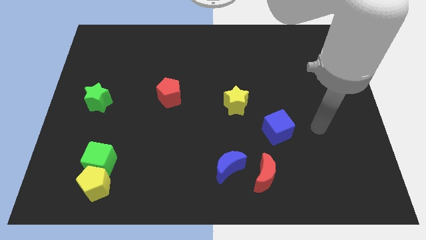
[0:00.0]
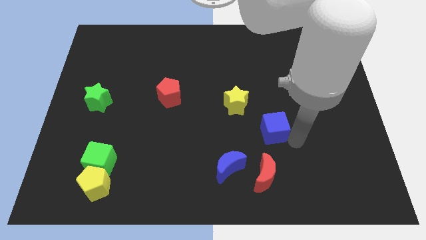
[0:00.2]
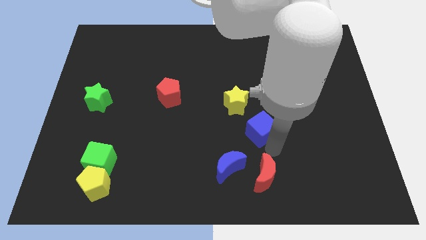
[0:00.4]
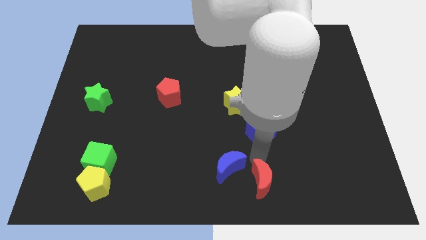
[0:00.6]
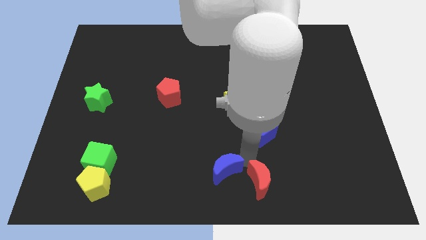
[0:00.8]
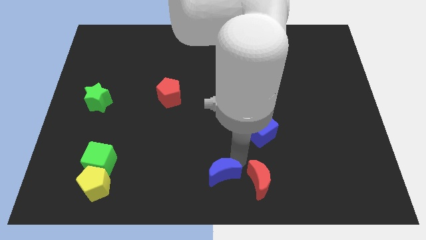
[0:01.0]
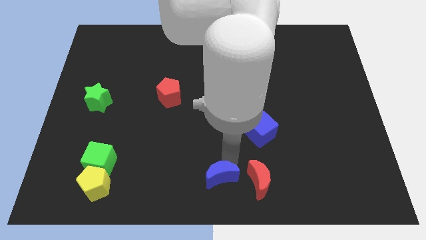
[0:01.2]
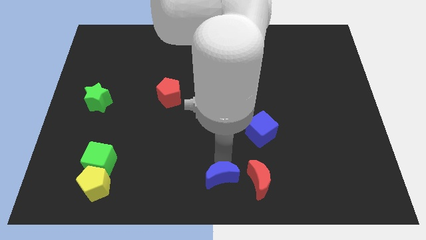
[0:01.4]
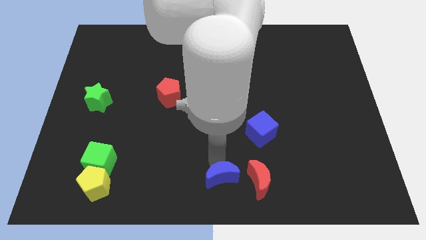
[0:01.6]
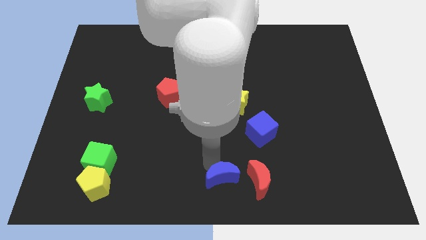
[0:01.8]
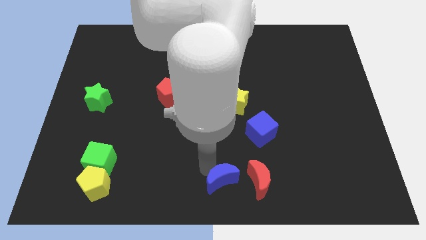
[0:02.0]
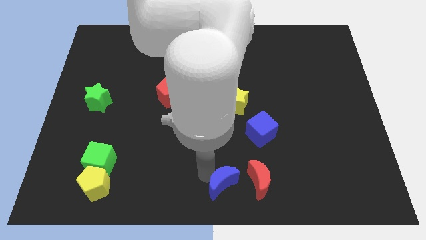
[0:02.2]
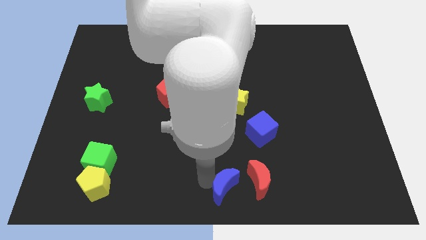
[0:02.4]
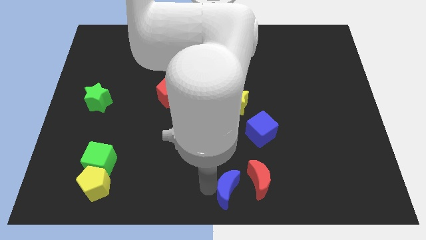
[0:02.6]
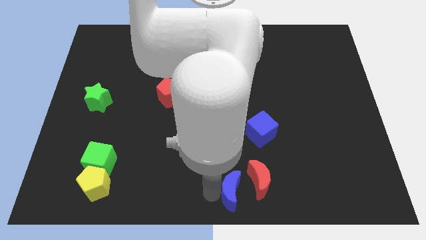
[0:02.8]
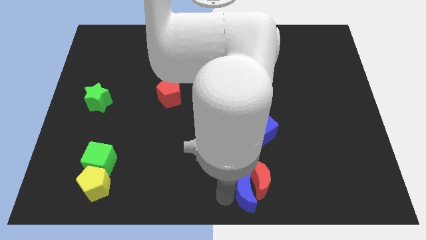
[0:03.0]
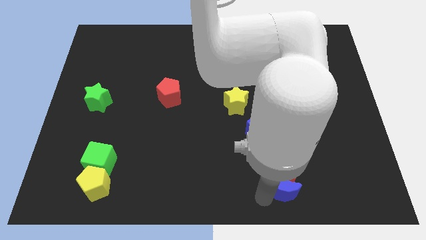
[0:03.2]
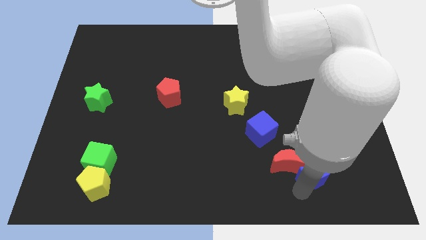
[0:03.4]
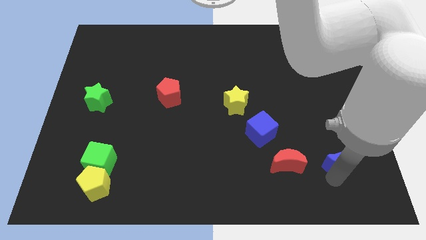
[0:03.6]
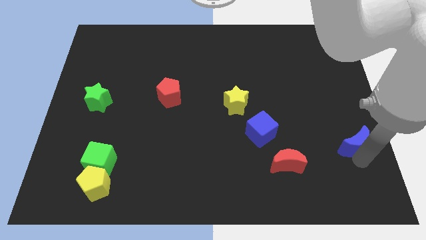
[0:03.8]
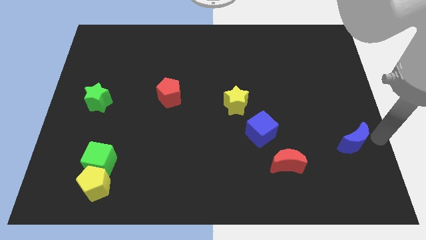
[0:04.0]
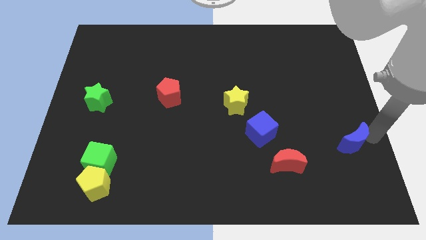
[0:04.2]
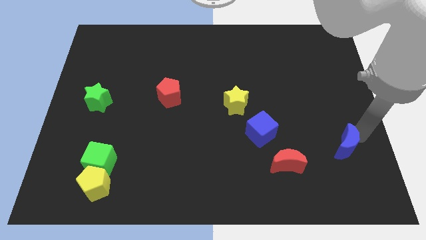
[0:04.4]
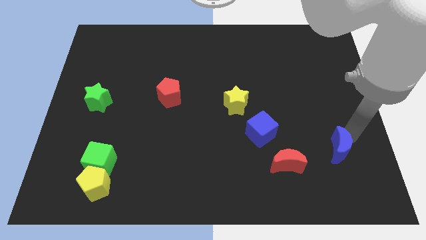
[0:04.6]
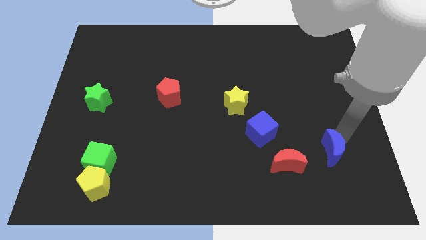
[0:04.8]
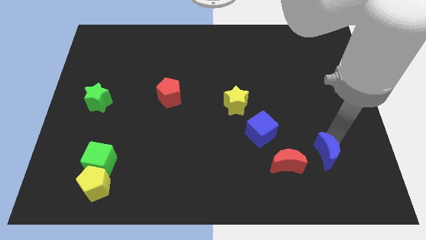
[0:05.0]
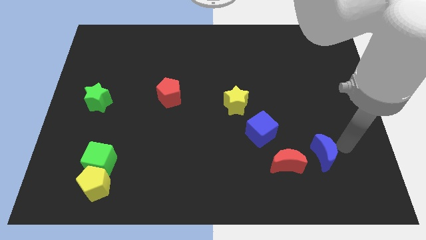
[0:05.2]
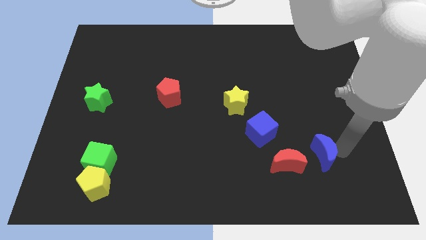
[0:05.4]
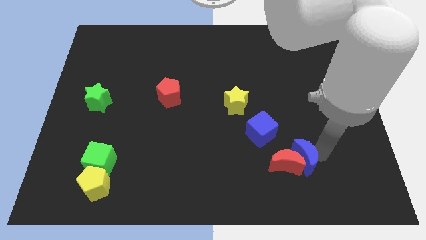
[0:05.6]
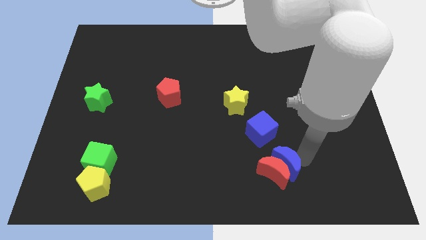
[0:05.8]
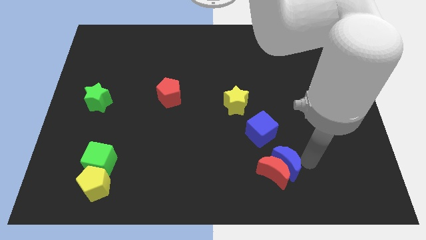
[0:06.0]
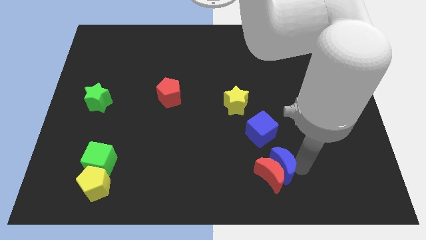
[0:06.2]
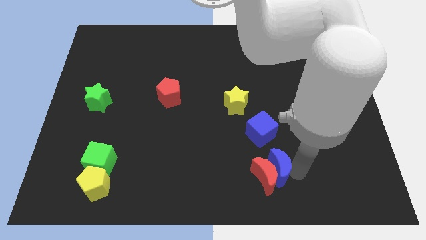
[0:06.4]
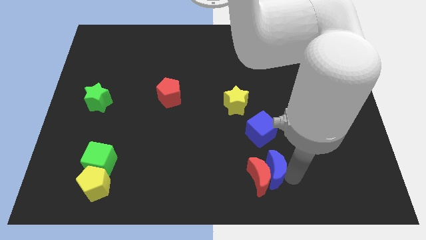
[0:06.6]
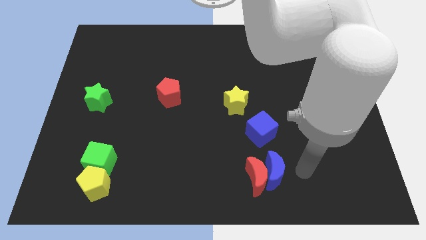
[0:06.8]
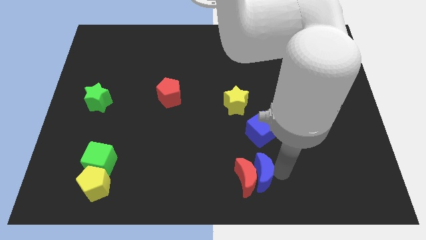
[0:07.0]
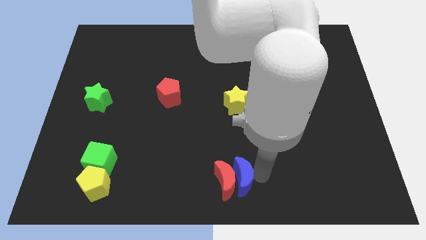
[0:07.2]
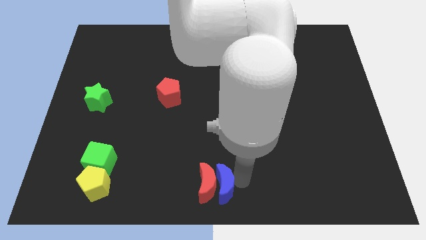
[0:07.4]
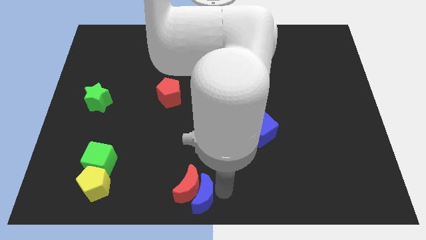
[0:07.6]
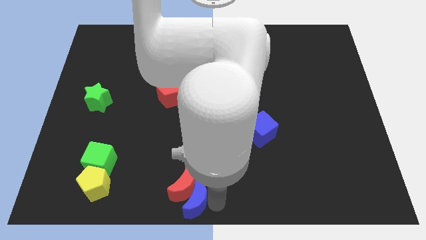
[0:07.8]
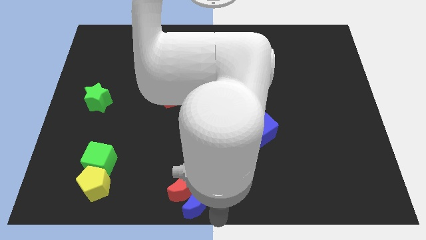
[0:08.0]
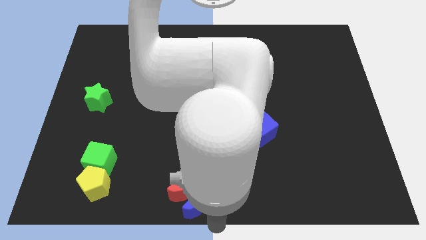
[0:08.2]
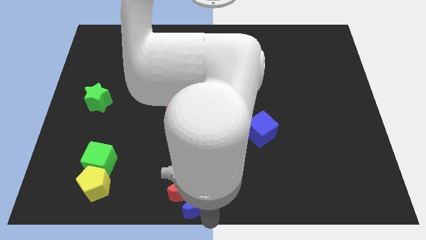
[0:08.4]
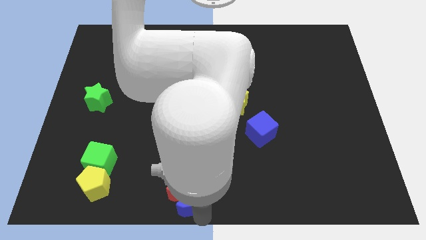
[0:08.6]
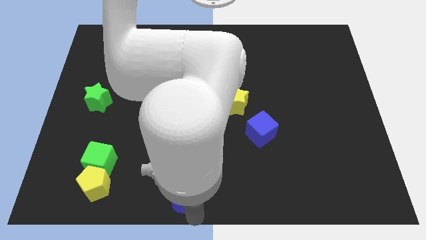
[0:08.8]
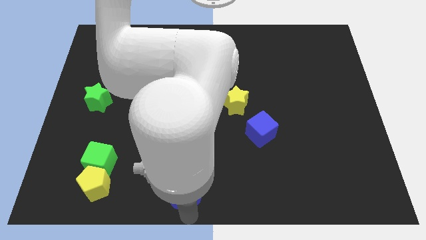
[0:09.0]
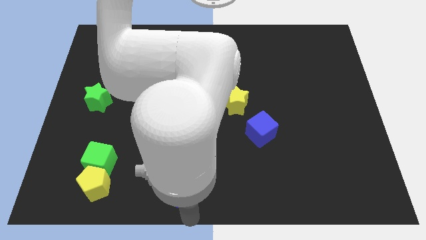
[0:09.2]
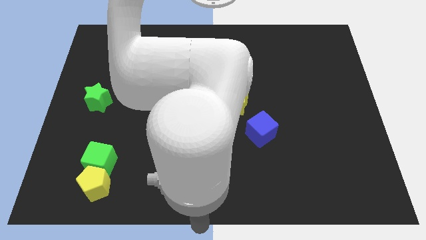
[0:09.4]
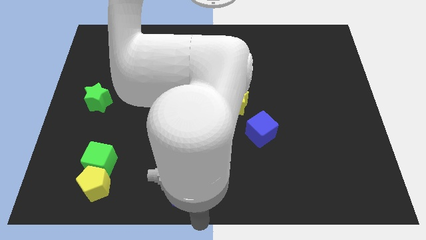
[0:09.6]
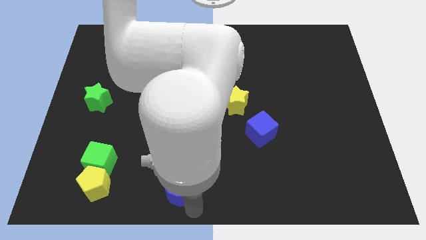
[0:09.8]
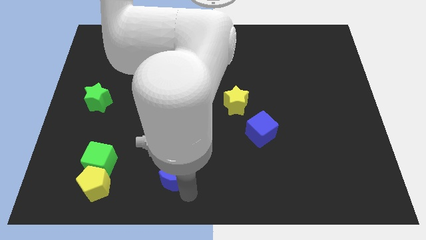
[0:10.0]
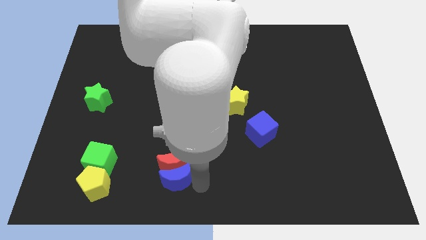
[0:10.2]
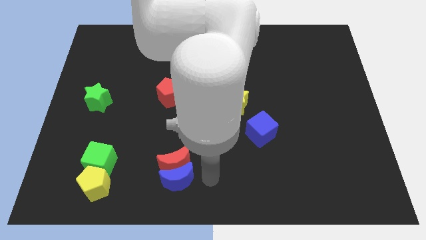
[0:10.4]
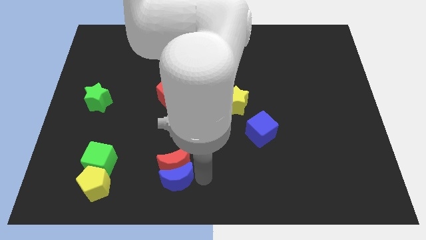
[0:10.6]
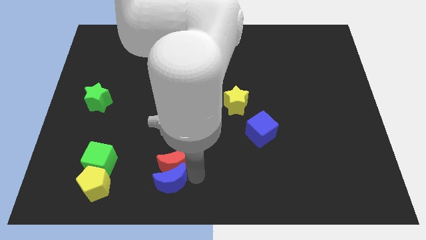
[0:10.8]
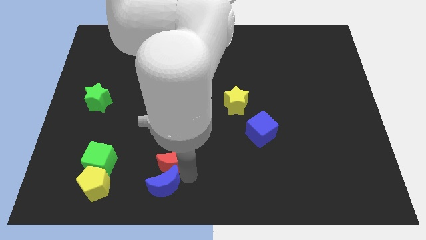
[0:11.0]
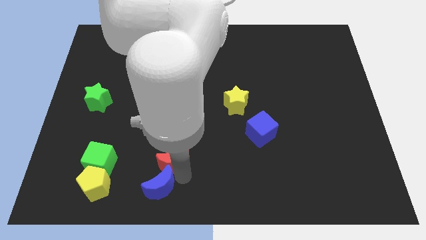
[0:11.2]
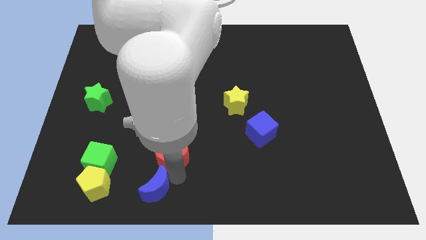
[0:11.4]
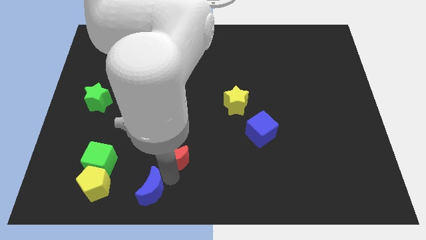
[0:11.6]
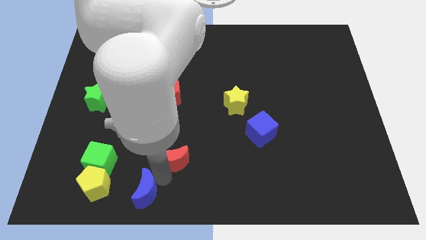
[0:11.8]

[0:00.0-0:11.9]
slide the blue moon to the bottom right side of the green cube

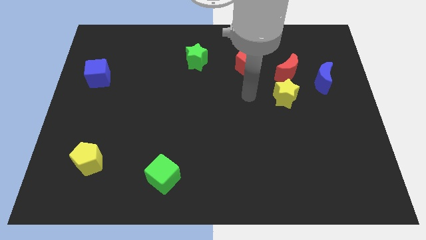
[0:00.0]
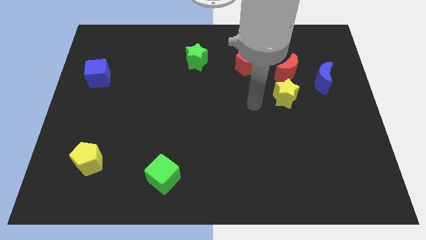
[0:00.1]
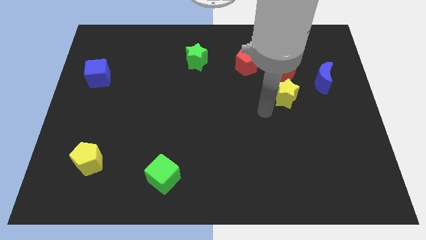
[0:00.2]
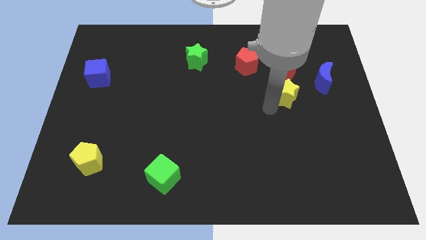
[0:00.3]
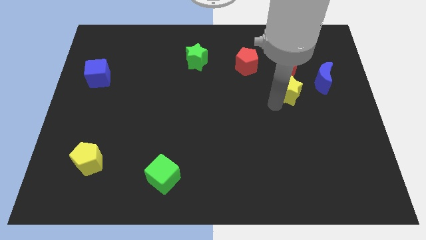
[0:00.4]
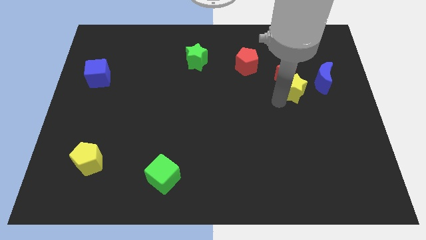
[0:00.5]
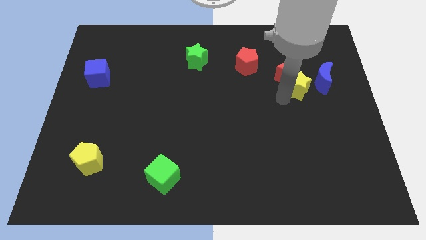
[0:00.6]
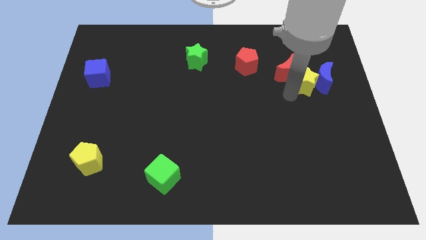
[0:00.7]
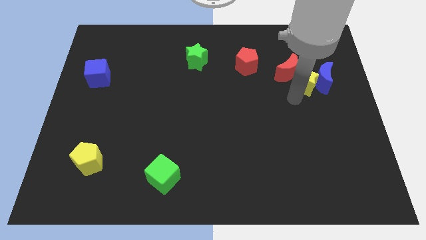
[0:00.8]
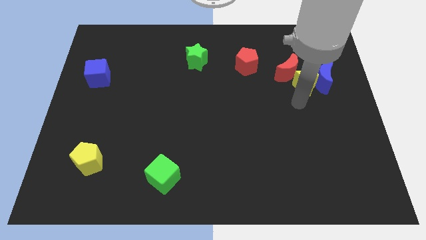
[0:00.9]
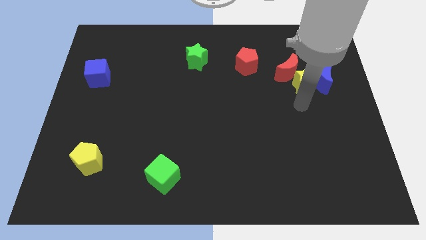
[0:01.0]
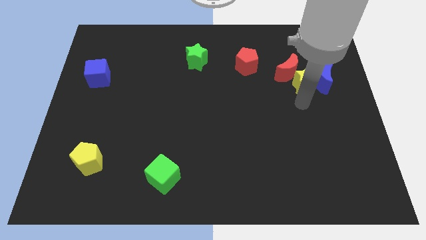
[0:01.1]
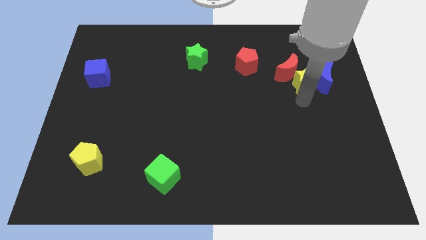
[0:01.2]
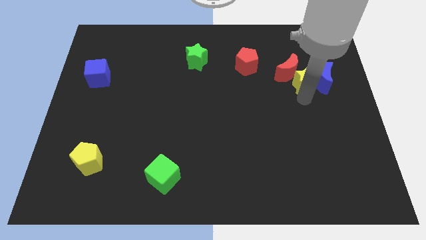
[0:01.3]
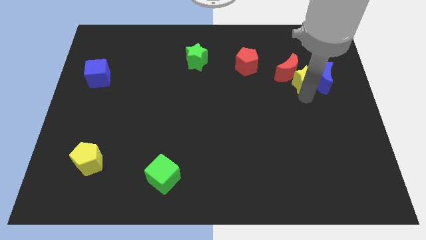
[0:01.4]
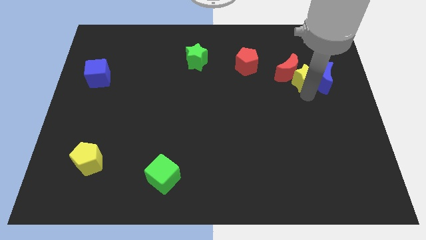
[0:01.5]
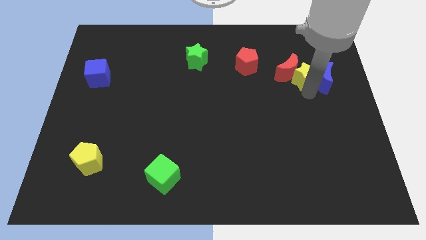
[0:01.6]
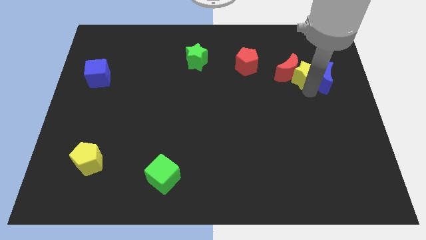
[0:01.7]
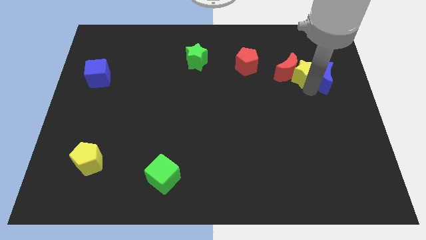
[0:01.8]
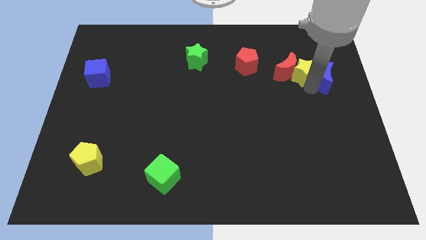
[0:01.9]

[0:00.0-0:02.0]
slide the yellow star right of the red pentagon
